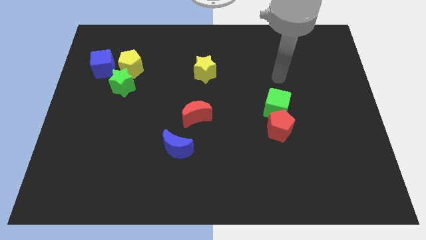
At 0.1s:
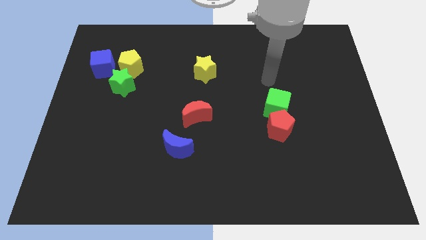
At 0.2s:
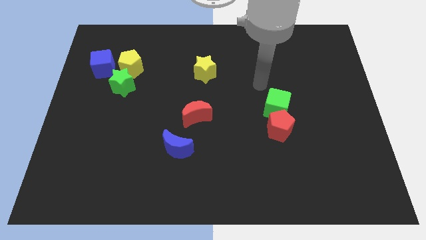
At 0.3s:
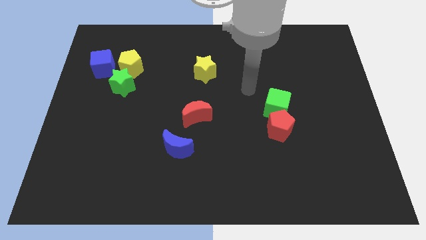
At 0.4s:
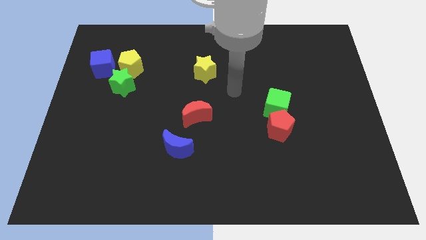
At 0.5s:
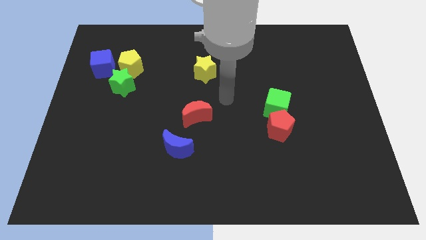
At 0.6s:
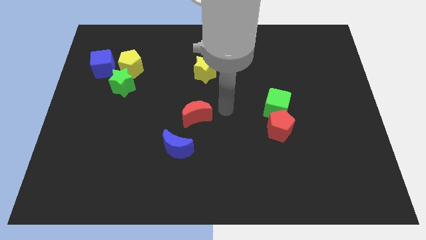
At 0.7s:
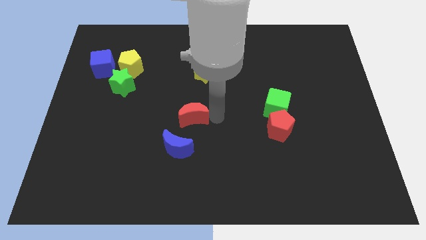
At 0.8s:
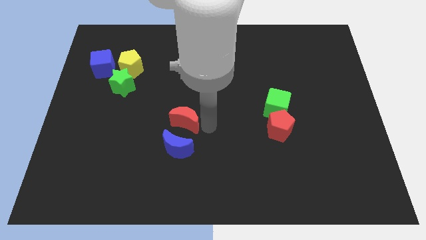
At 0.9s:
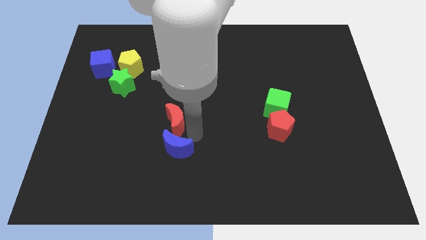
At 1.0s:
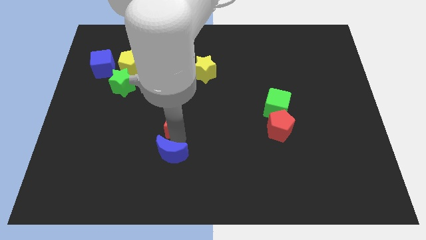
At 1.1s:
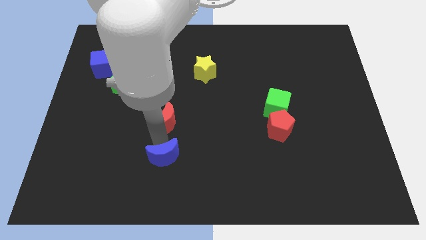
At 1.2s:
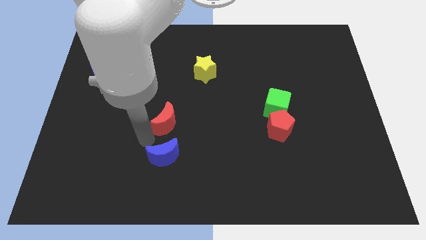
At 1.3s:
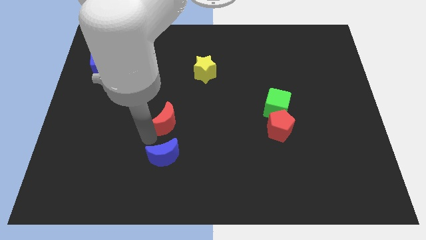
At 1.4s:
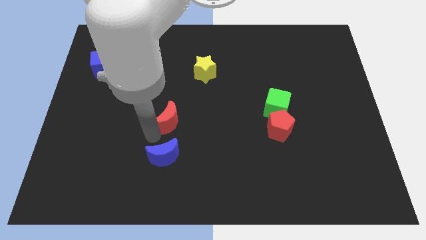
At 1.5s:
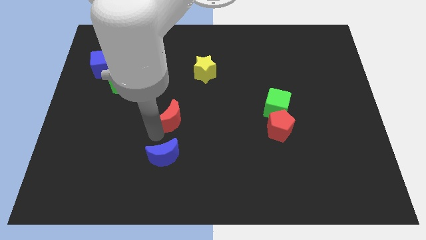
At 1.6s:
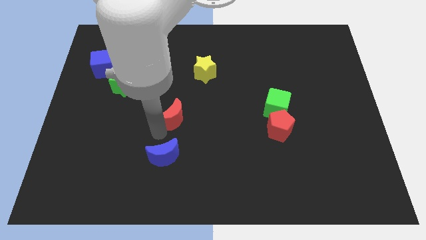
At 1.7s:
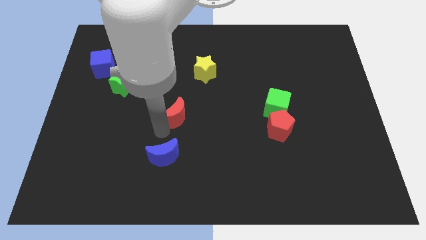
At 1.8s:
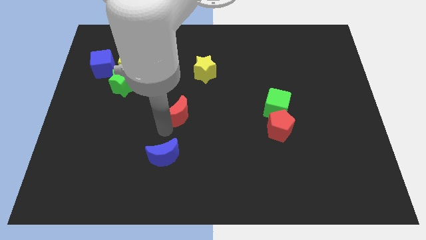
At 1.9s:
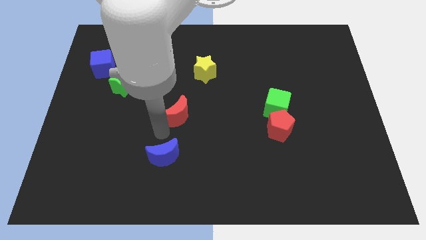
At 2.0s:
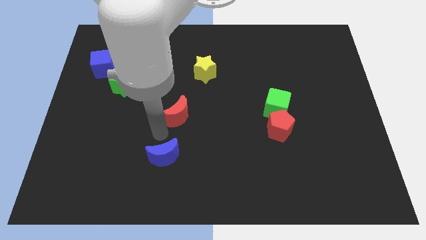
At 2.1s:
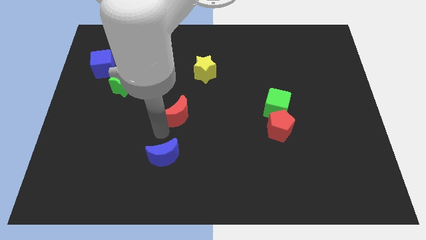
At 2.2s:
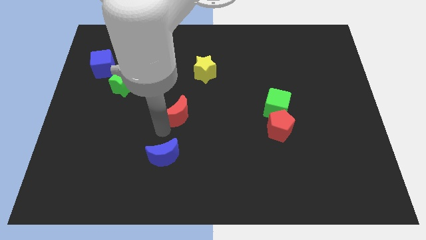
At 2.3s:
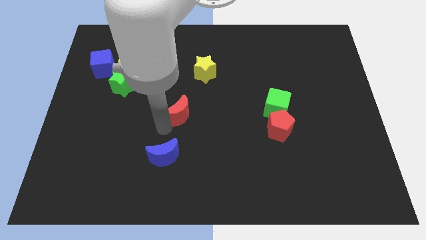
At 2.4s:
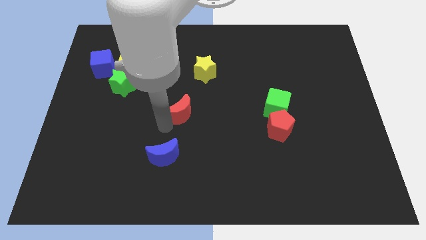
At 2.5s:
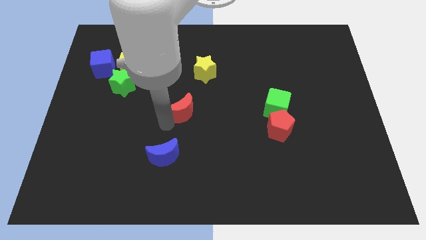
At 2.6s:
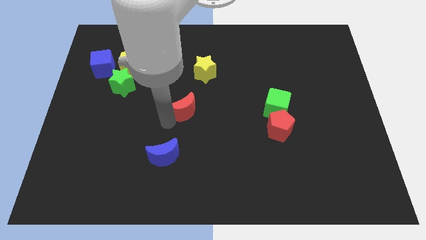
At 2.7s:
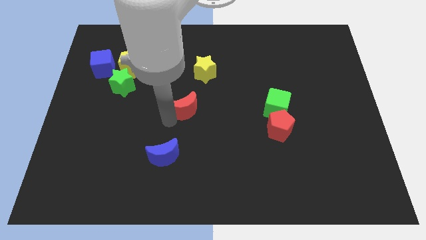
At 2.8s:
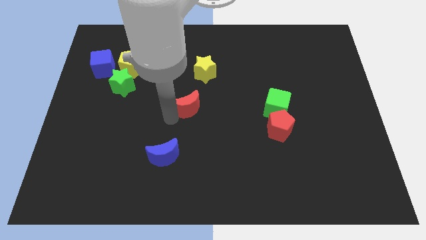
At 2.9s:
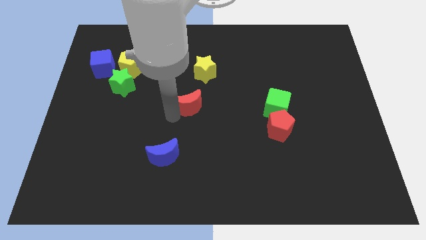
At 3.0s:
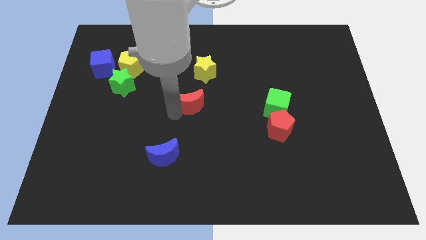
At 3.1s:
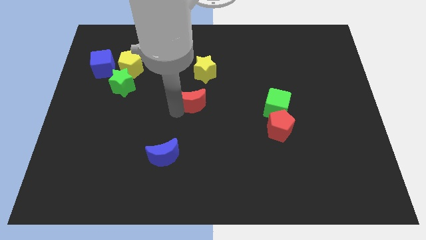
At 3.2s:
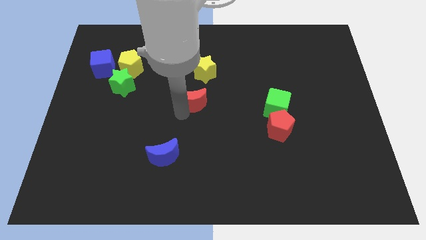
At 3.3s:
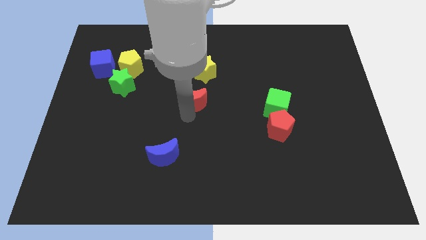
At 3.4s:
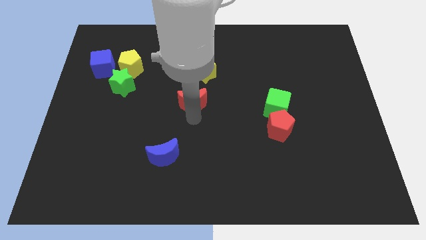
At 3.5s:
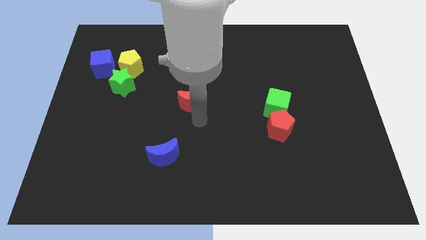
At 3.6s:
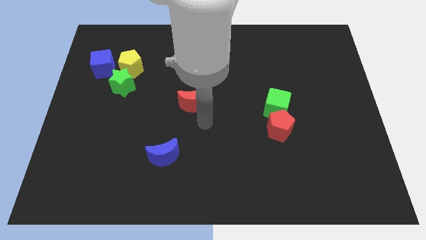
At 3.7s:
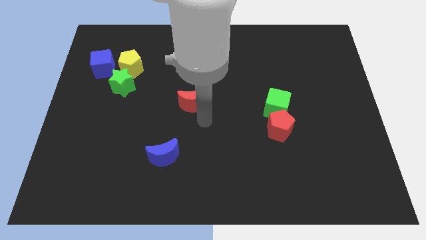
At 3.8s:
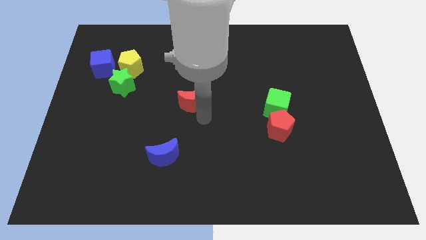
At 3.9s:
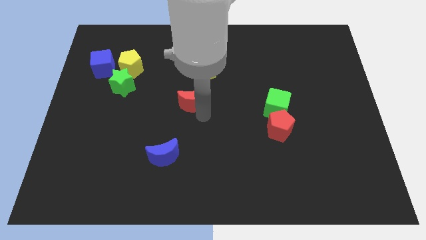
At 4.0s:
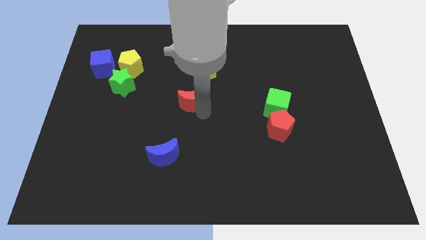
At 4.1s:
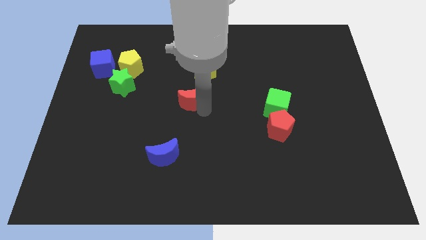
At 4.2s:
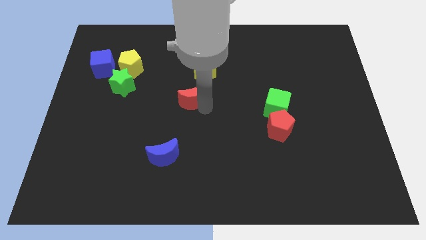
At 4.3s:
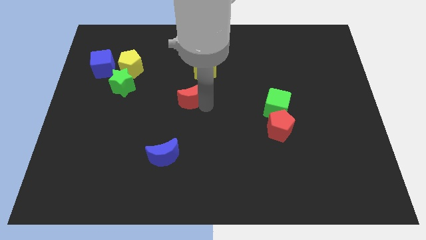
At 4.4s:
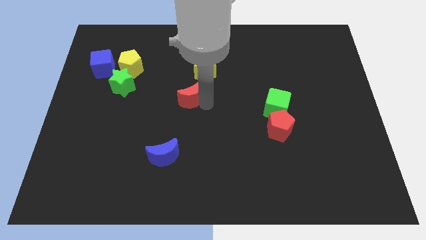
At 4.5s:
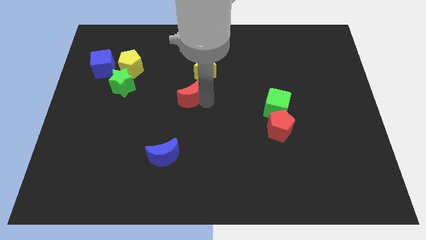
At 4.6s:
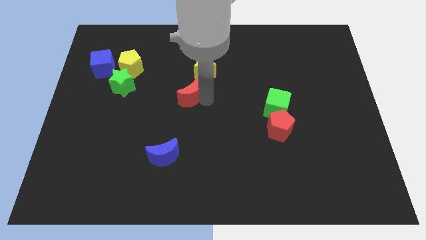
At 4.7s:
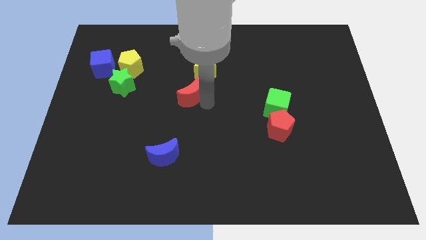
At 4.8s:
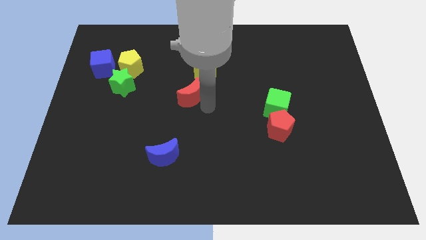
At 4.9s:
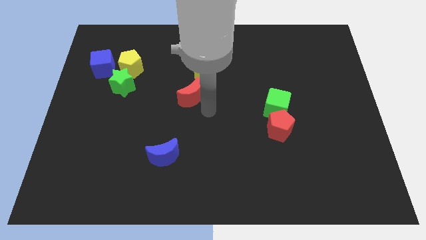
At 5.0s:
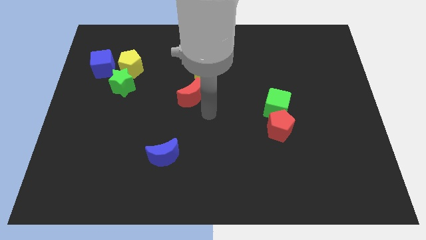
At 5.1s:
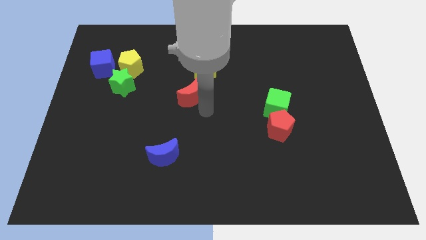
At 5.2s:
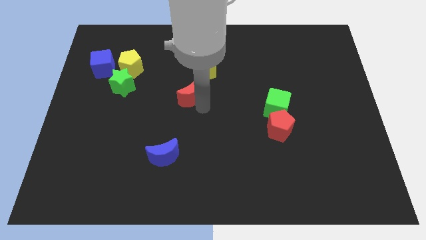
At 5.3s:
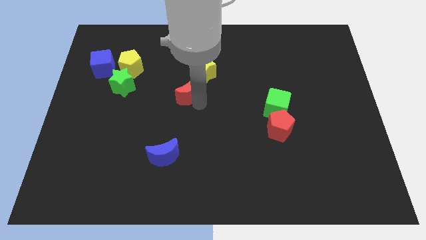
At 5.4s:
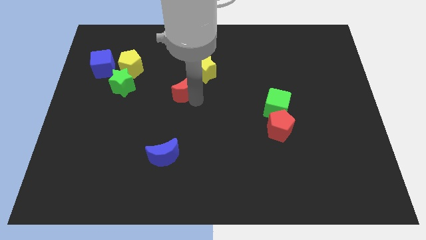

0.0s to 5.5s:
slide the red moon upwards a little bit

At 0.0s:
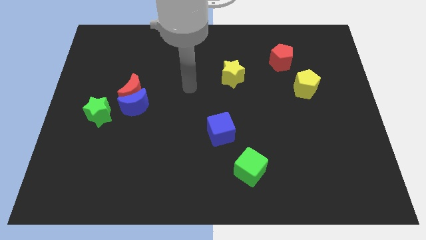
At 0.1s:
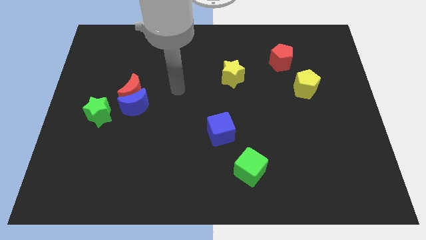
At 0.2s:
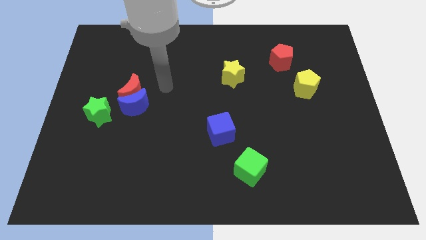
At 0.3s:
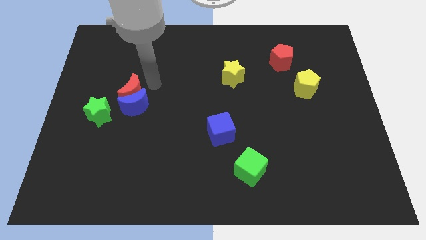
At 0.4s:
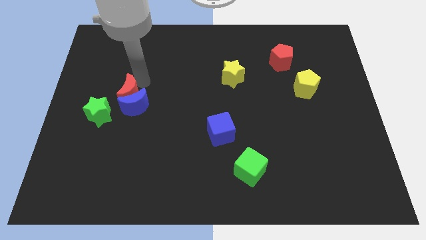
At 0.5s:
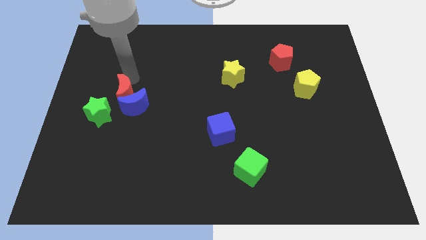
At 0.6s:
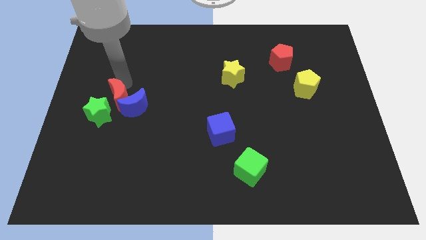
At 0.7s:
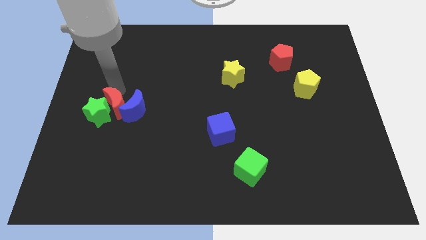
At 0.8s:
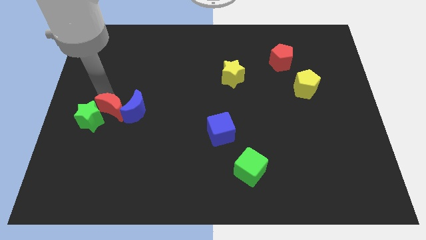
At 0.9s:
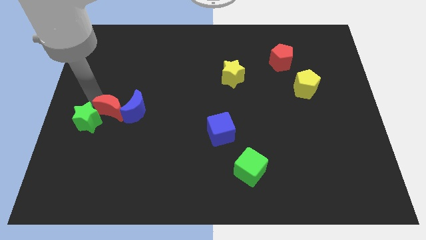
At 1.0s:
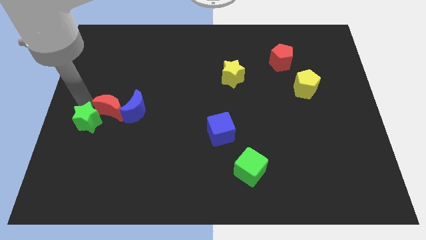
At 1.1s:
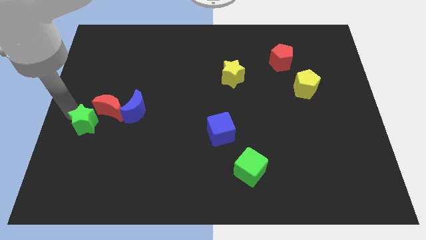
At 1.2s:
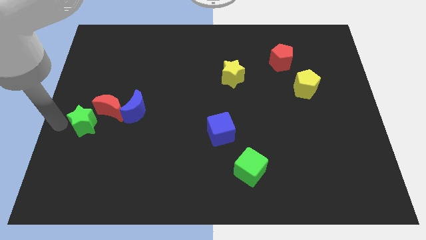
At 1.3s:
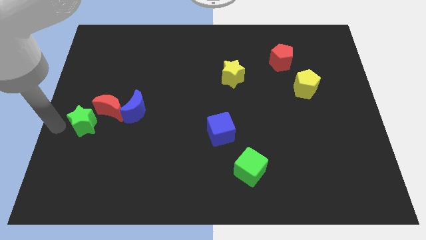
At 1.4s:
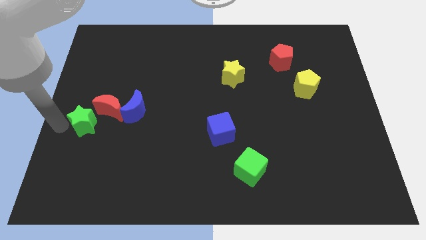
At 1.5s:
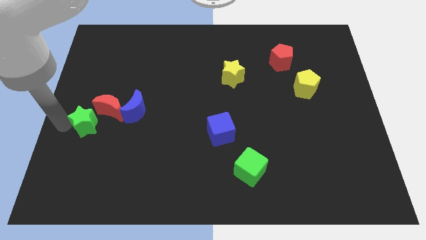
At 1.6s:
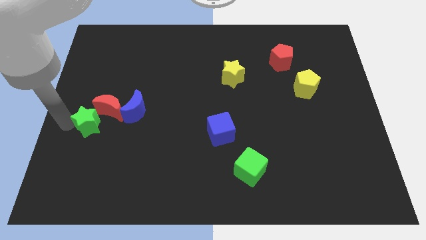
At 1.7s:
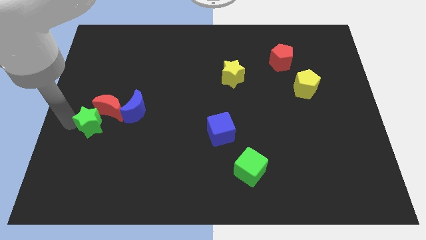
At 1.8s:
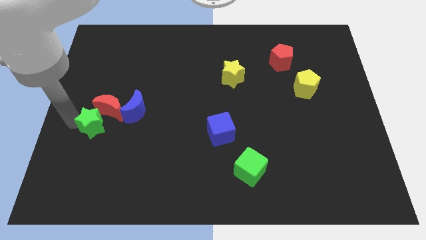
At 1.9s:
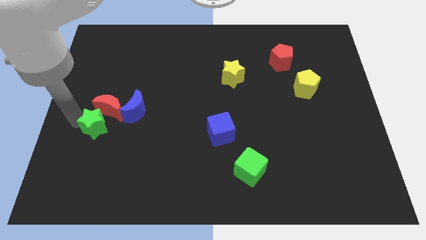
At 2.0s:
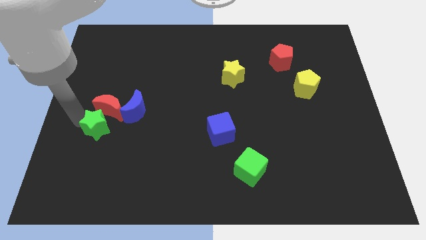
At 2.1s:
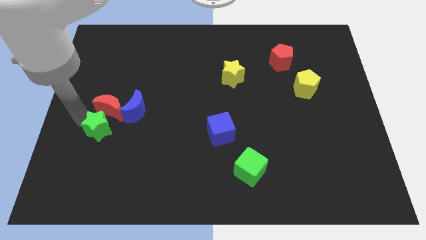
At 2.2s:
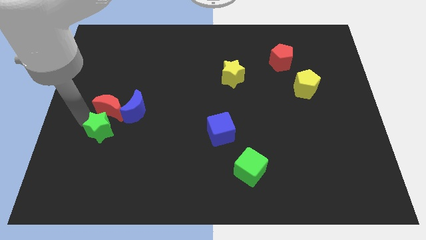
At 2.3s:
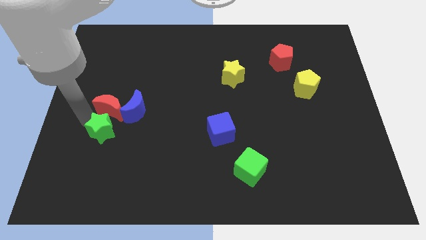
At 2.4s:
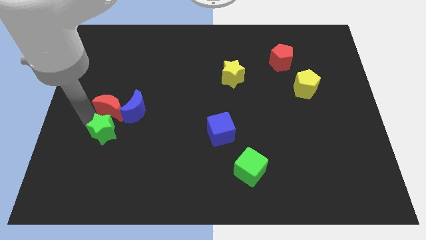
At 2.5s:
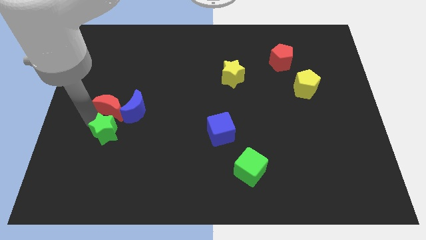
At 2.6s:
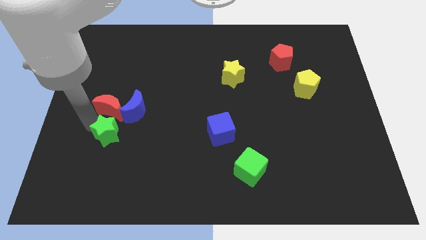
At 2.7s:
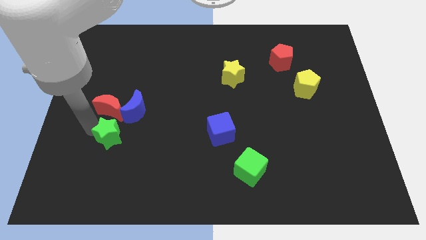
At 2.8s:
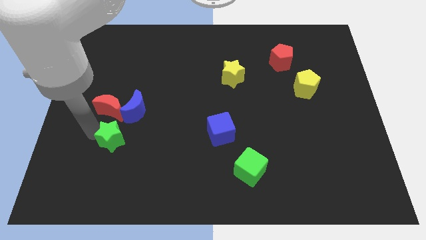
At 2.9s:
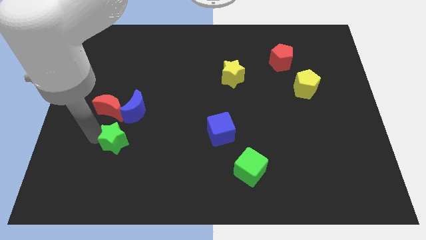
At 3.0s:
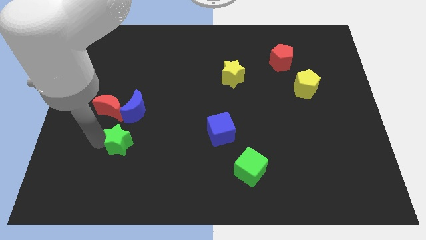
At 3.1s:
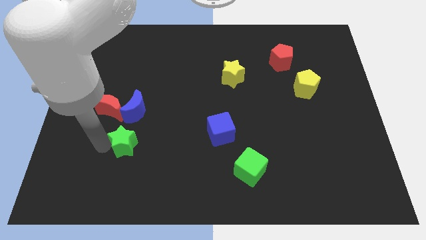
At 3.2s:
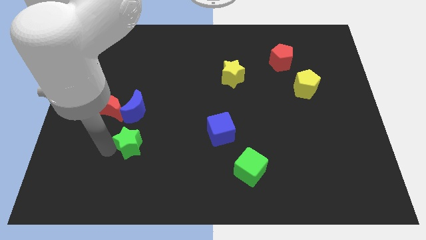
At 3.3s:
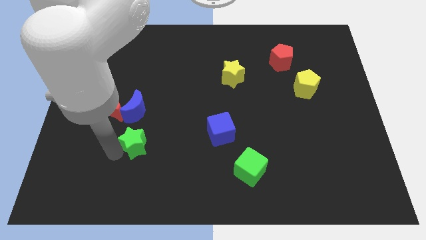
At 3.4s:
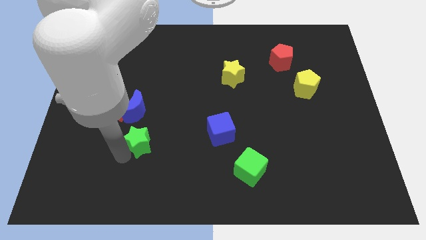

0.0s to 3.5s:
slightly push the green star to the right
